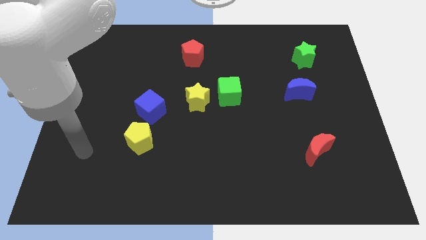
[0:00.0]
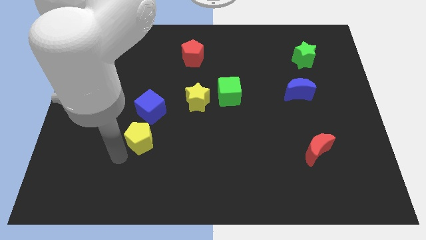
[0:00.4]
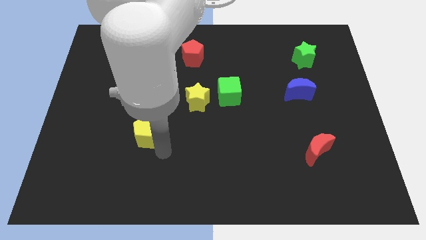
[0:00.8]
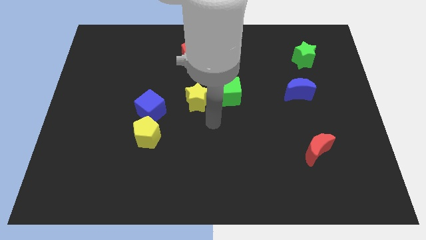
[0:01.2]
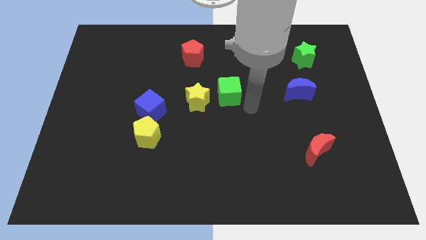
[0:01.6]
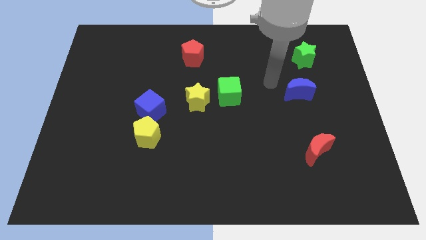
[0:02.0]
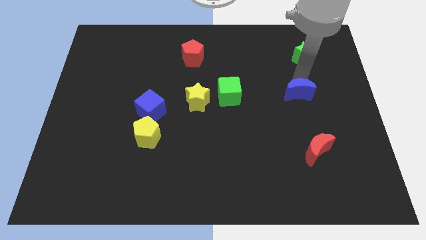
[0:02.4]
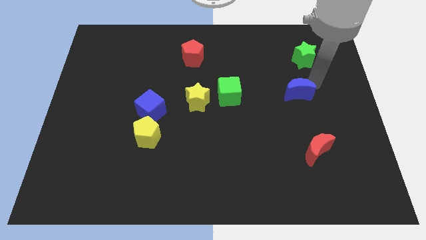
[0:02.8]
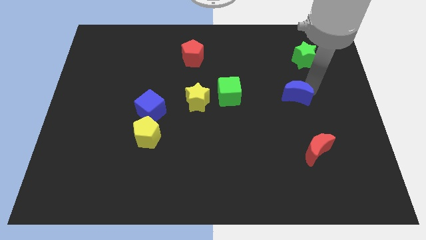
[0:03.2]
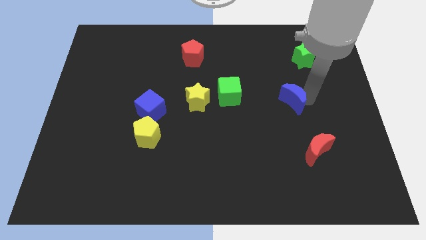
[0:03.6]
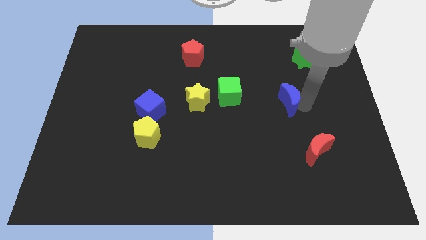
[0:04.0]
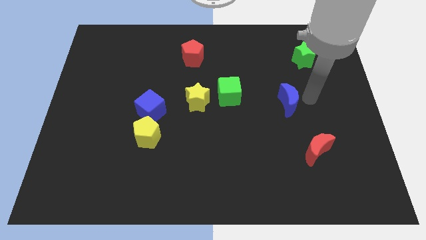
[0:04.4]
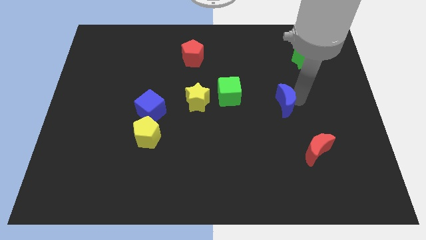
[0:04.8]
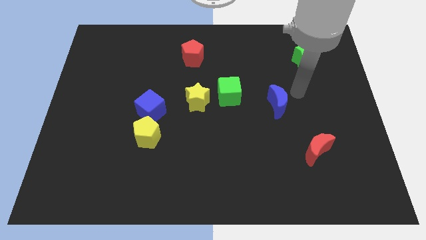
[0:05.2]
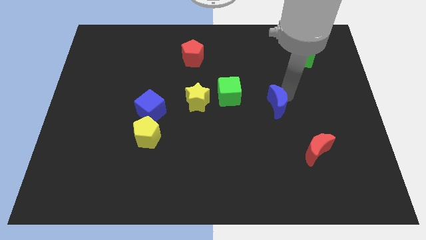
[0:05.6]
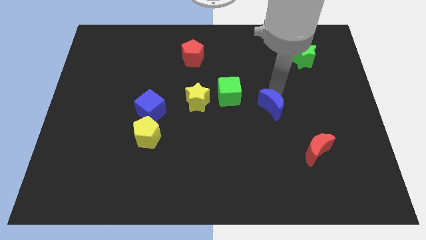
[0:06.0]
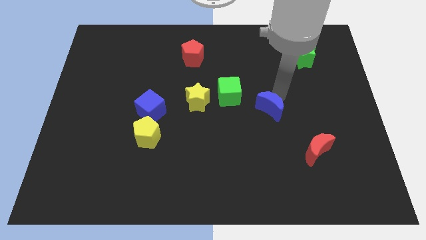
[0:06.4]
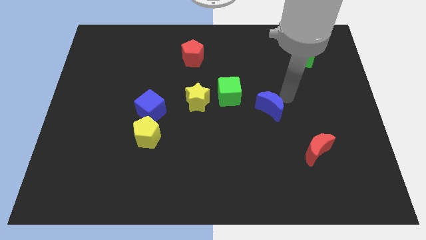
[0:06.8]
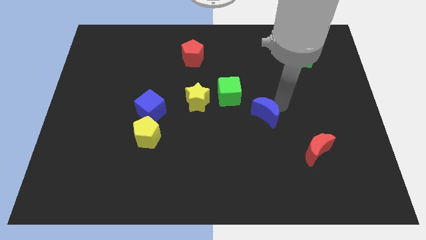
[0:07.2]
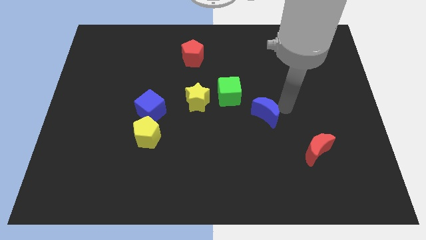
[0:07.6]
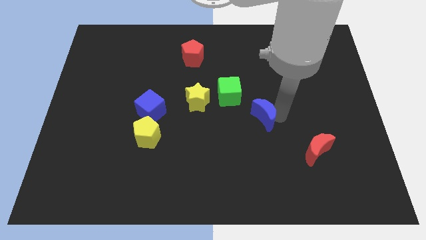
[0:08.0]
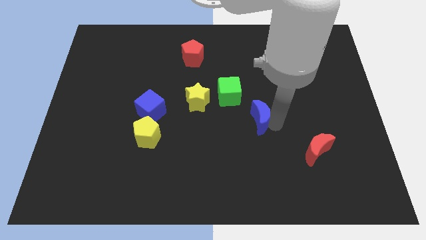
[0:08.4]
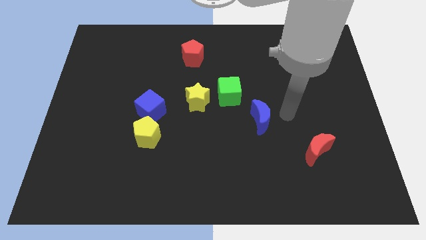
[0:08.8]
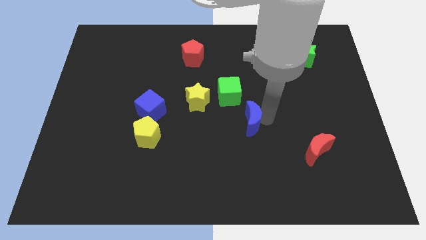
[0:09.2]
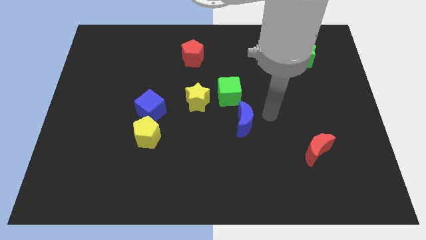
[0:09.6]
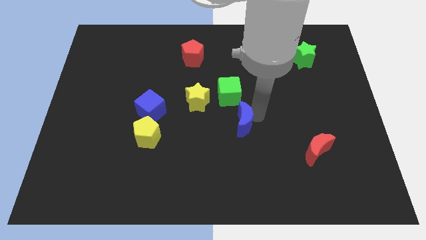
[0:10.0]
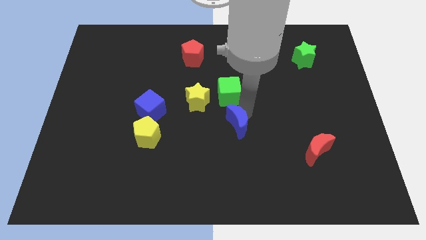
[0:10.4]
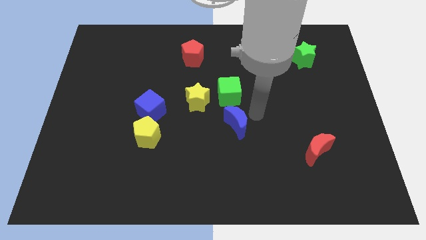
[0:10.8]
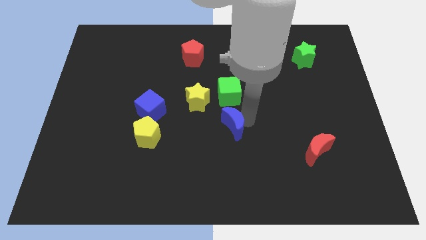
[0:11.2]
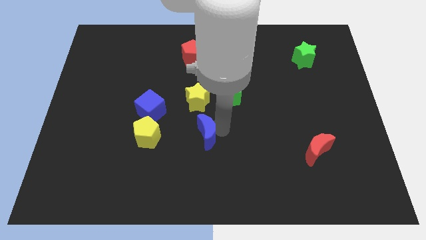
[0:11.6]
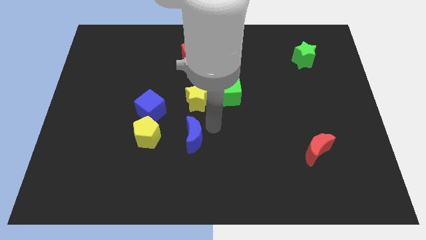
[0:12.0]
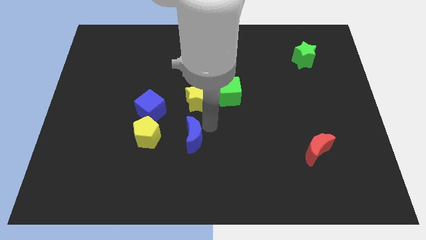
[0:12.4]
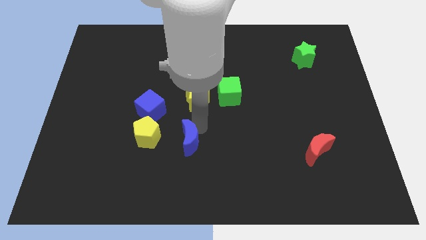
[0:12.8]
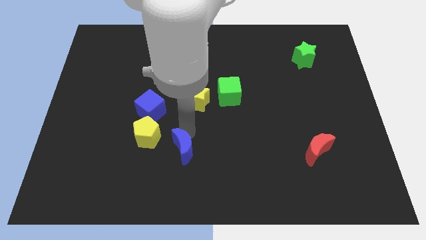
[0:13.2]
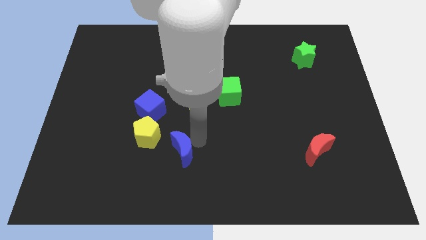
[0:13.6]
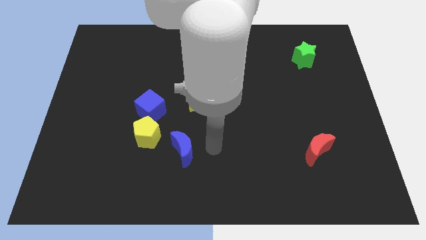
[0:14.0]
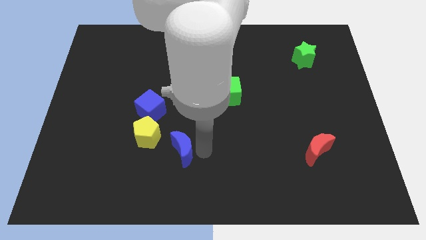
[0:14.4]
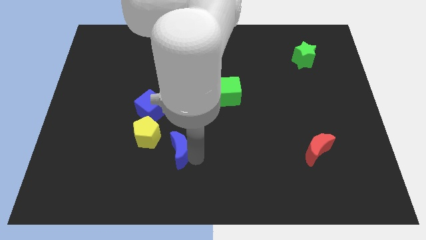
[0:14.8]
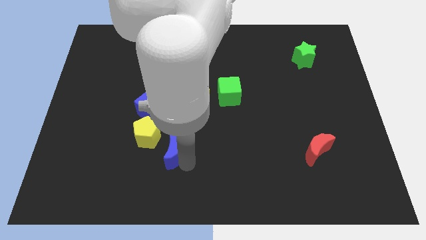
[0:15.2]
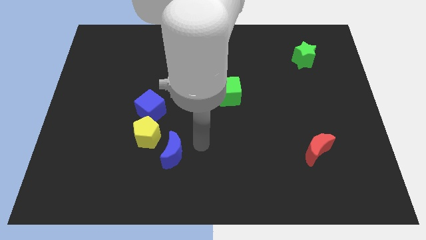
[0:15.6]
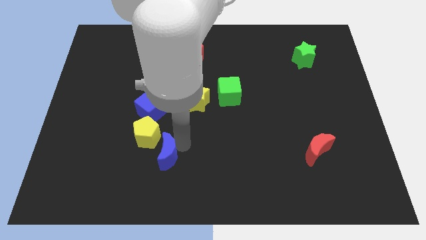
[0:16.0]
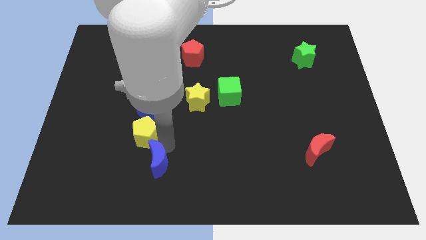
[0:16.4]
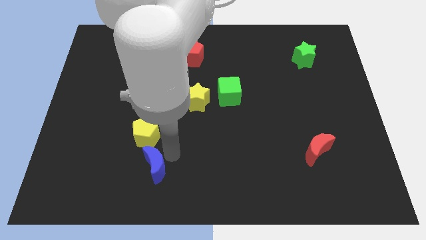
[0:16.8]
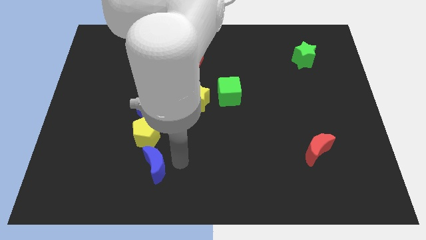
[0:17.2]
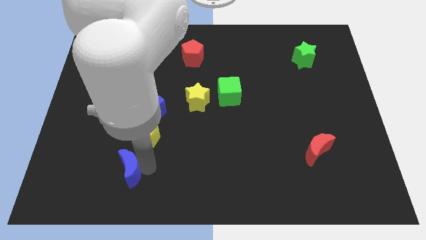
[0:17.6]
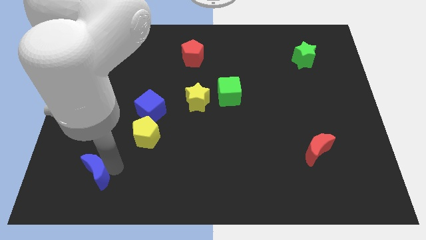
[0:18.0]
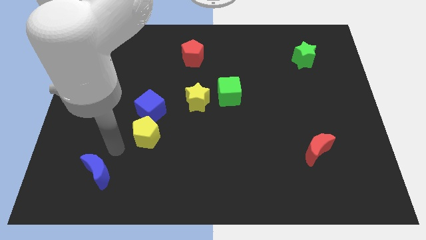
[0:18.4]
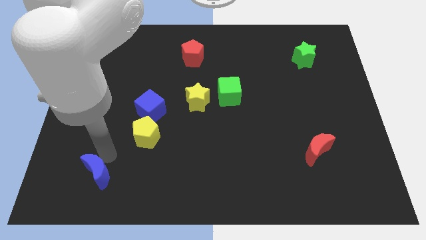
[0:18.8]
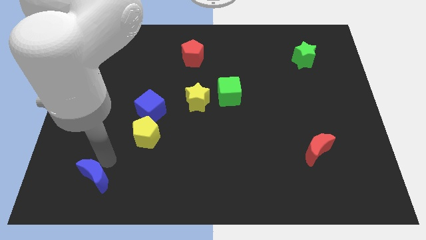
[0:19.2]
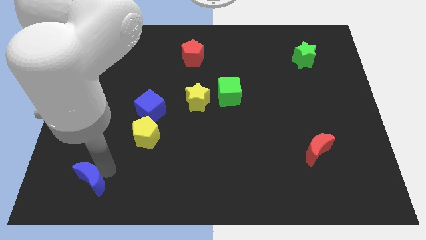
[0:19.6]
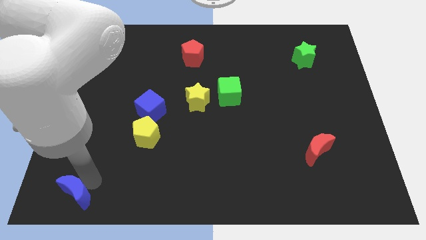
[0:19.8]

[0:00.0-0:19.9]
push the blue moon to the bottom left corner
